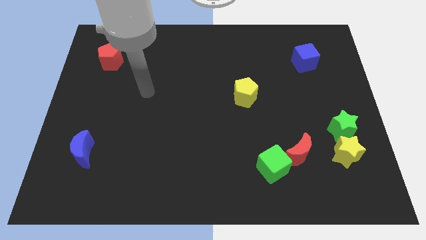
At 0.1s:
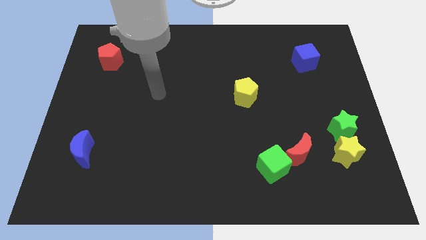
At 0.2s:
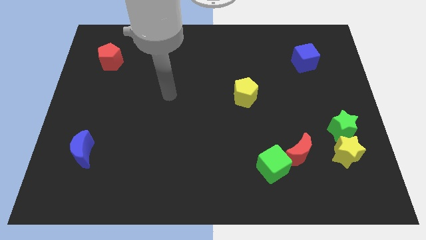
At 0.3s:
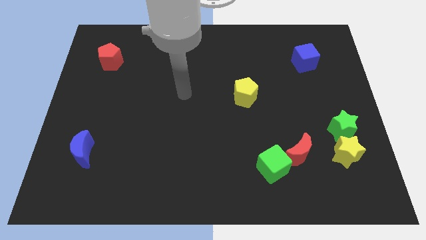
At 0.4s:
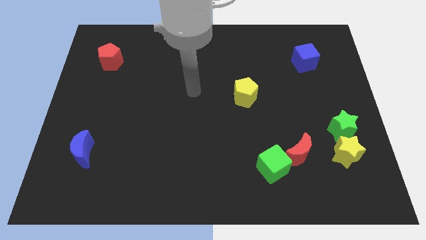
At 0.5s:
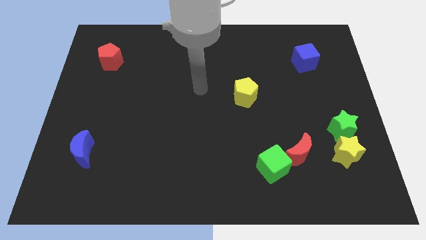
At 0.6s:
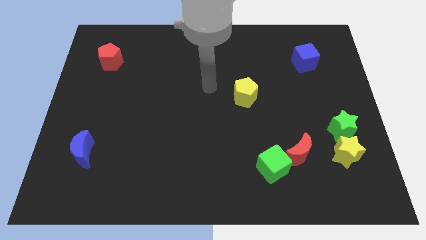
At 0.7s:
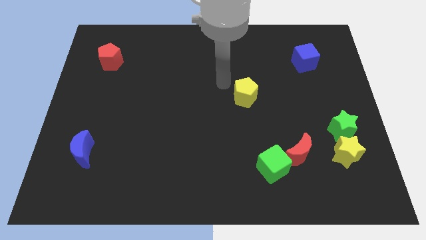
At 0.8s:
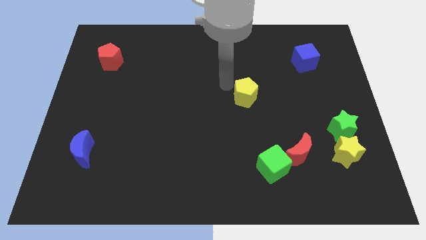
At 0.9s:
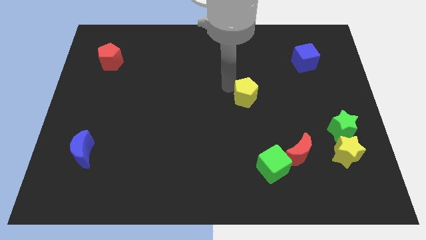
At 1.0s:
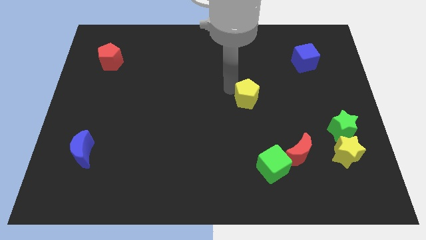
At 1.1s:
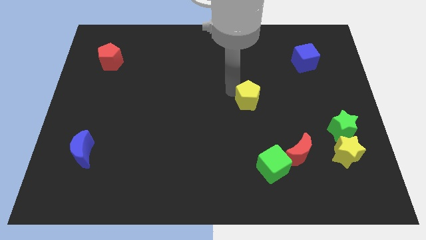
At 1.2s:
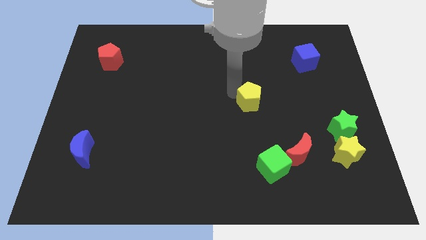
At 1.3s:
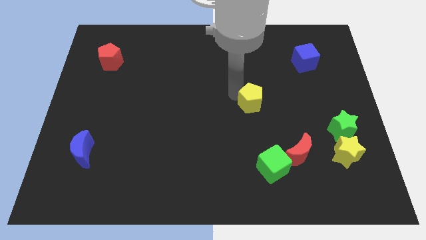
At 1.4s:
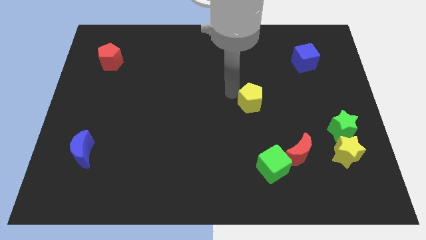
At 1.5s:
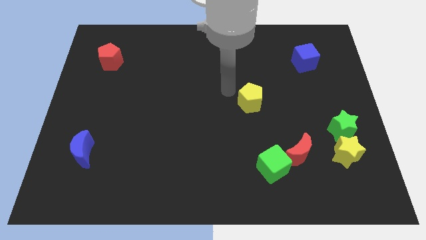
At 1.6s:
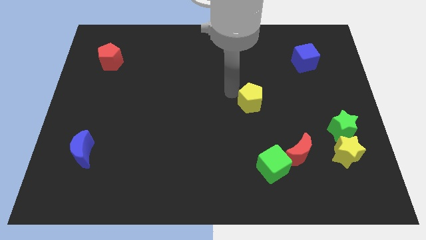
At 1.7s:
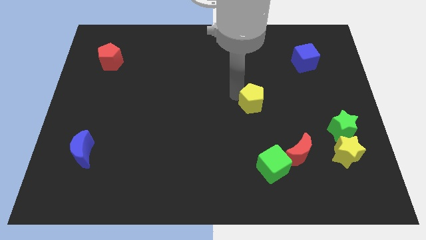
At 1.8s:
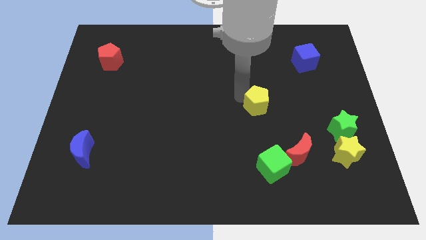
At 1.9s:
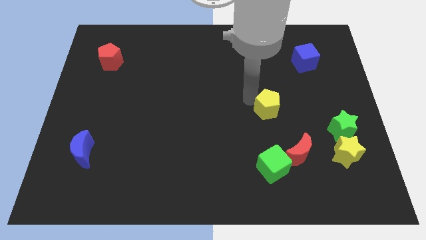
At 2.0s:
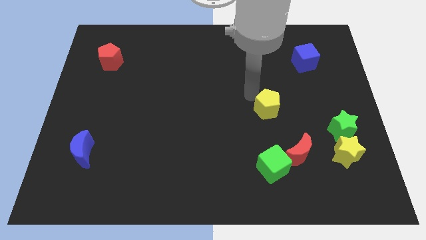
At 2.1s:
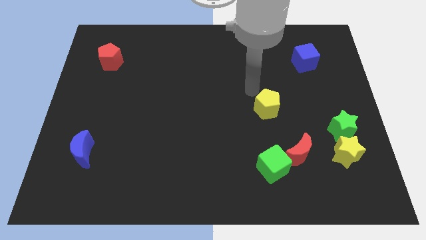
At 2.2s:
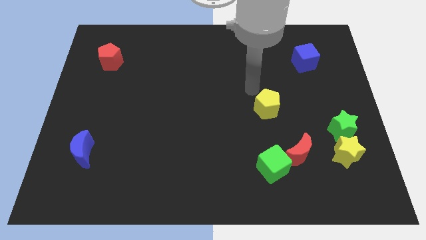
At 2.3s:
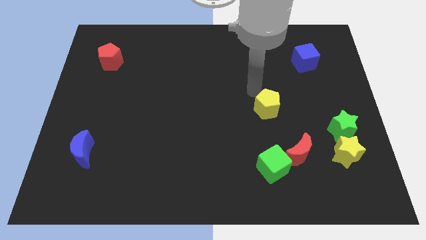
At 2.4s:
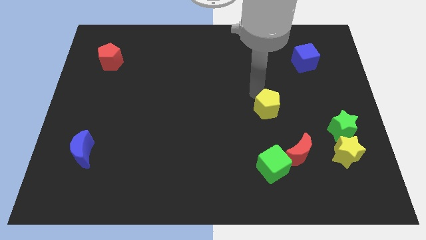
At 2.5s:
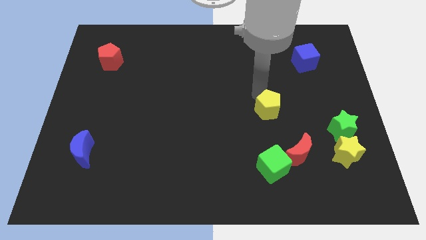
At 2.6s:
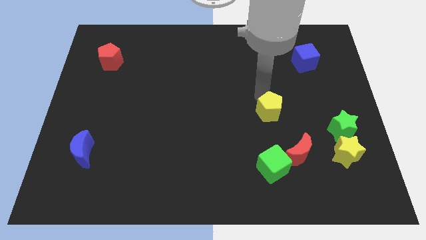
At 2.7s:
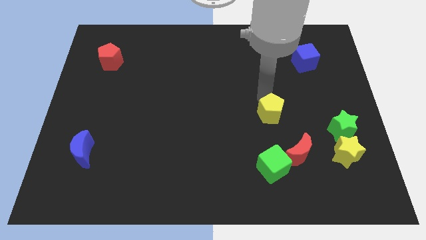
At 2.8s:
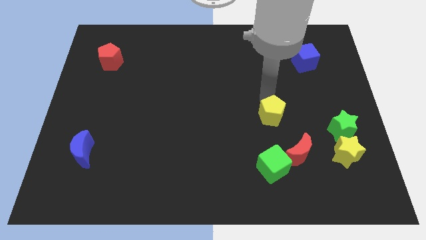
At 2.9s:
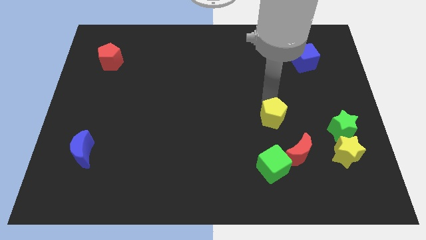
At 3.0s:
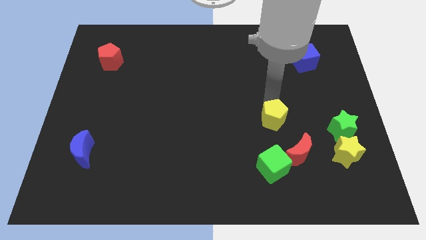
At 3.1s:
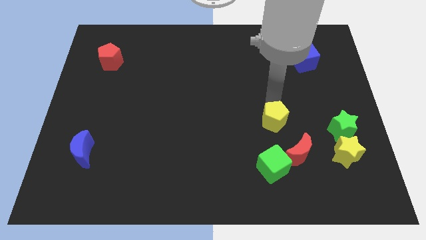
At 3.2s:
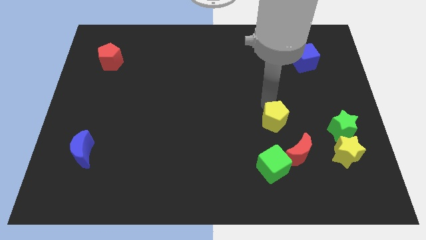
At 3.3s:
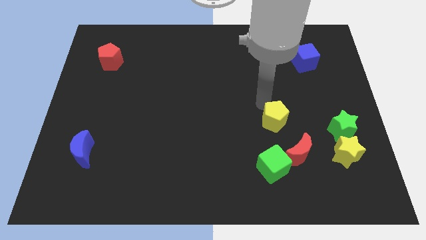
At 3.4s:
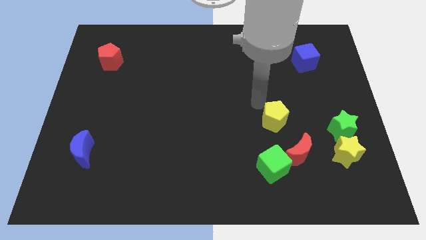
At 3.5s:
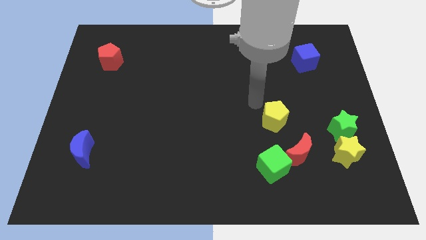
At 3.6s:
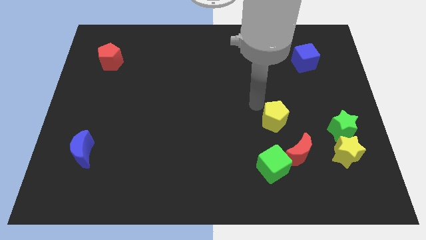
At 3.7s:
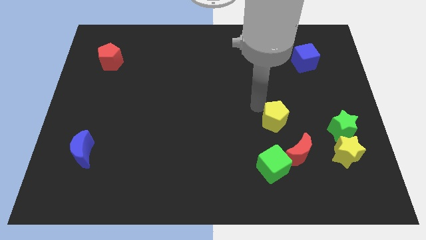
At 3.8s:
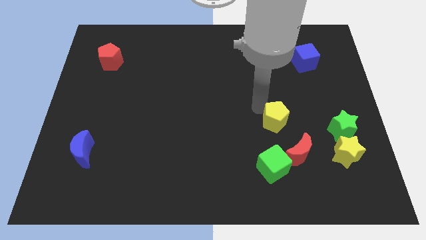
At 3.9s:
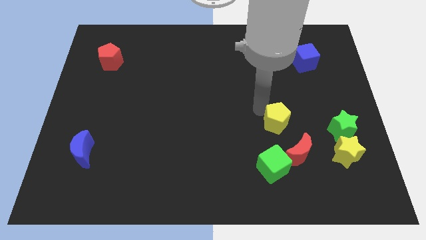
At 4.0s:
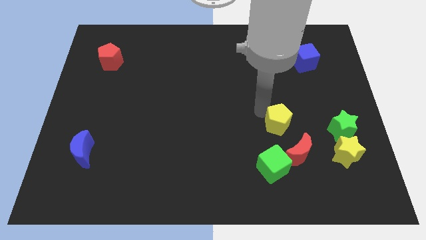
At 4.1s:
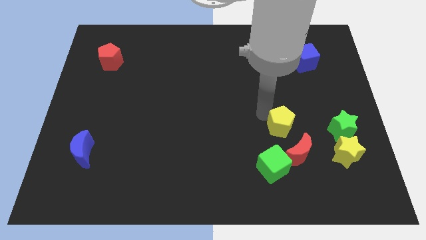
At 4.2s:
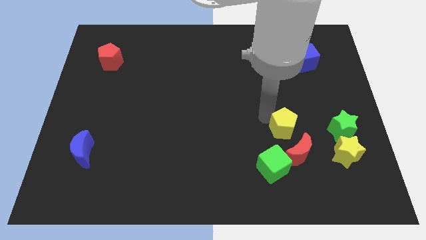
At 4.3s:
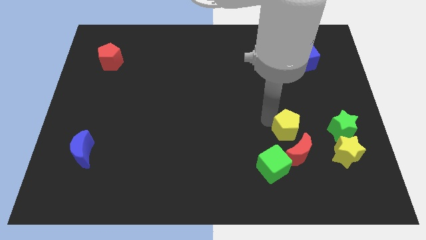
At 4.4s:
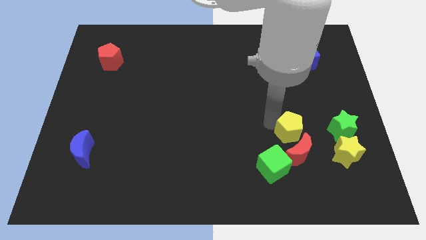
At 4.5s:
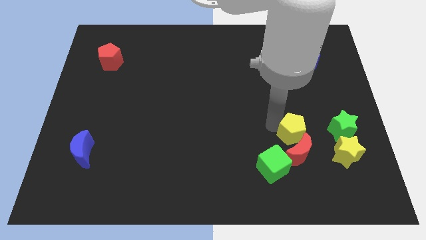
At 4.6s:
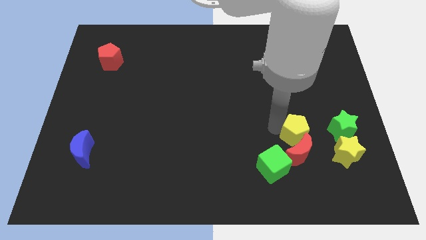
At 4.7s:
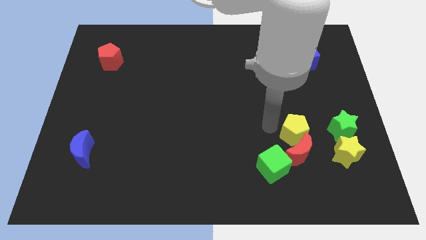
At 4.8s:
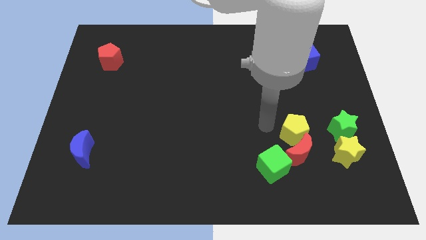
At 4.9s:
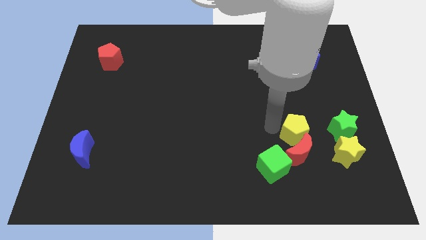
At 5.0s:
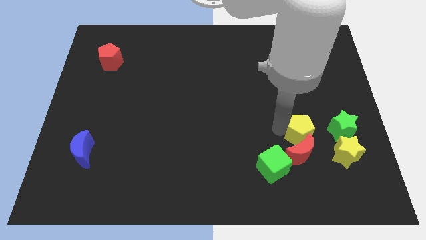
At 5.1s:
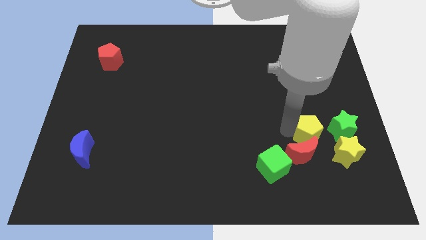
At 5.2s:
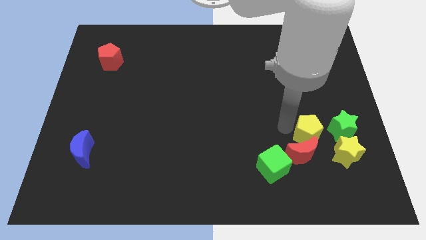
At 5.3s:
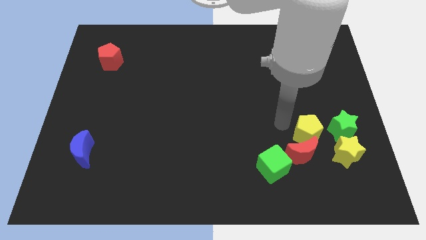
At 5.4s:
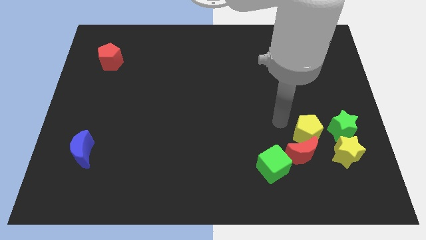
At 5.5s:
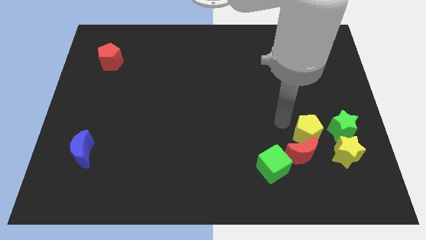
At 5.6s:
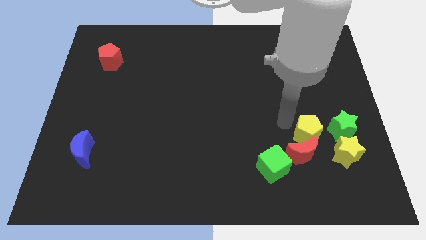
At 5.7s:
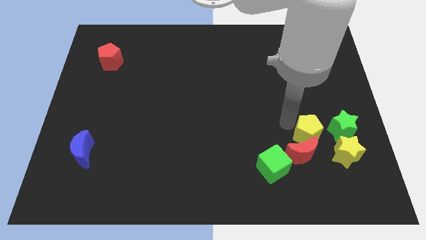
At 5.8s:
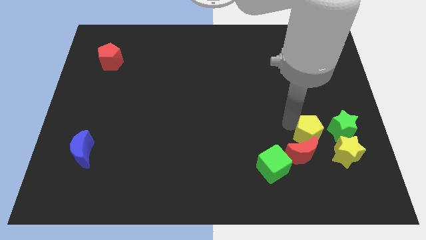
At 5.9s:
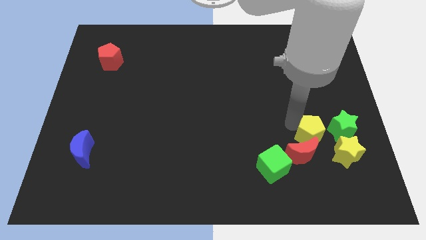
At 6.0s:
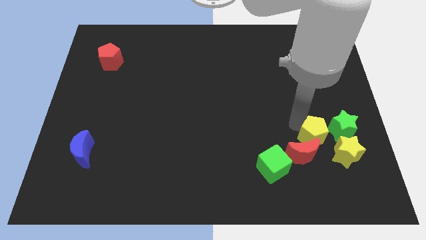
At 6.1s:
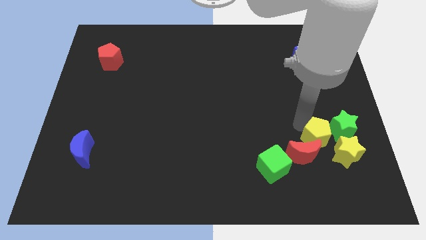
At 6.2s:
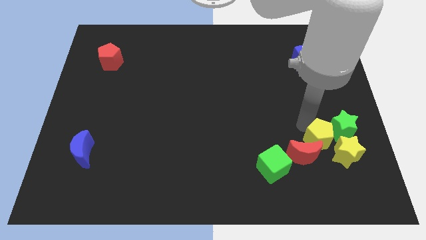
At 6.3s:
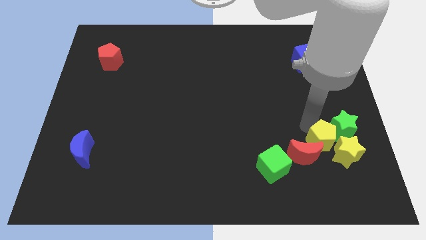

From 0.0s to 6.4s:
slide the yellow pentagon to the yellow star
